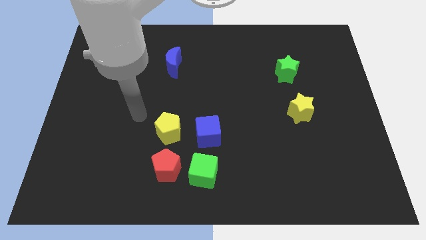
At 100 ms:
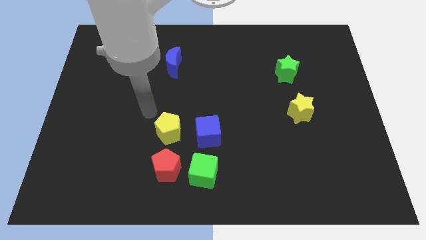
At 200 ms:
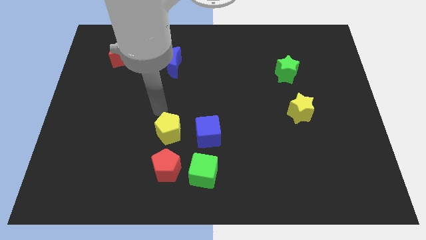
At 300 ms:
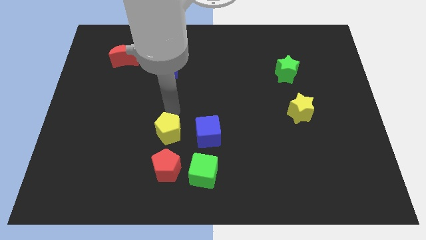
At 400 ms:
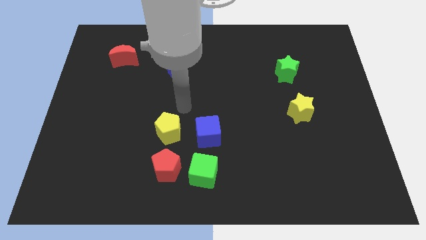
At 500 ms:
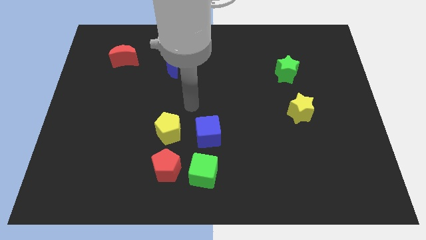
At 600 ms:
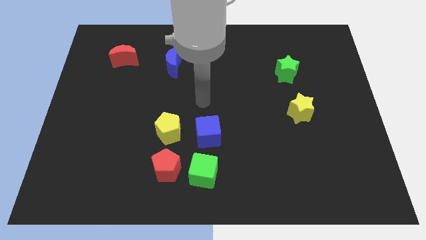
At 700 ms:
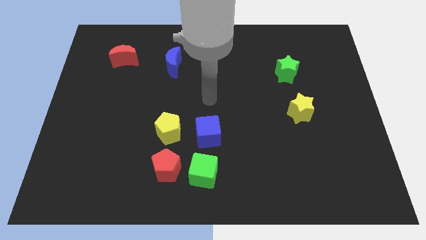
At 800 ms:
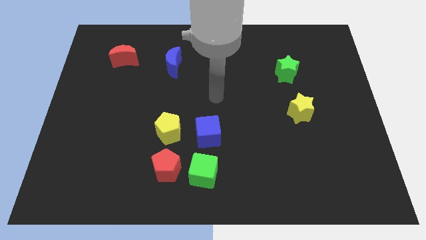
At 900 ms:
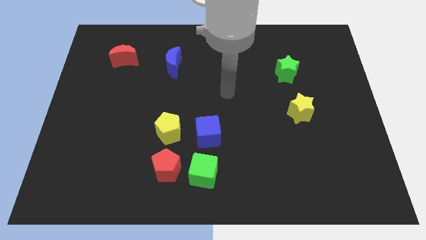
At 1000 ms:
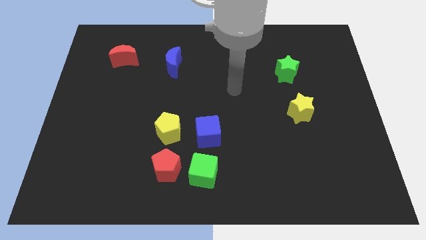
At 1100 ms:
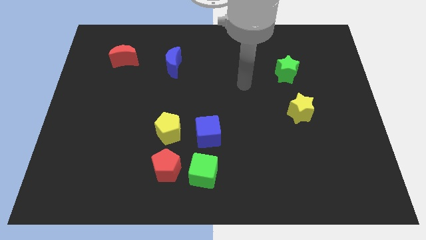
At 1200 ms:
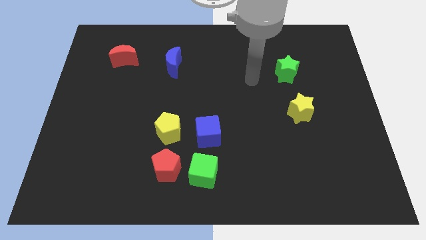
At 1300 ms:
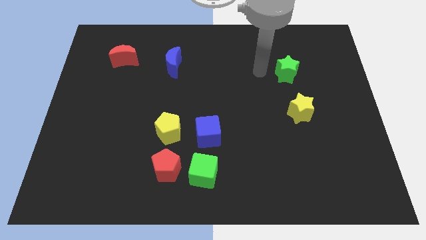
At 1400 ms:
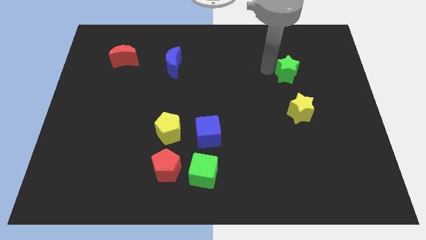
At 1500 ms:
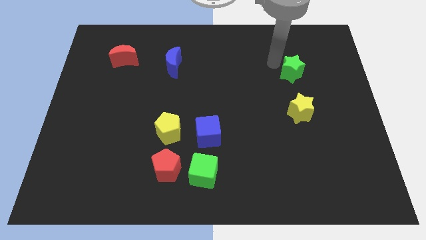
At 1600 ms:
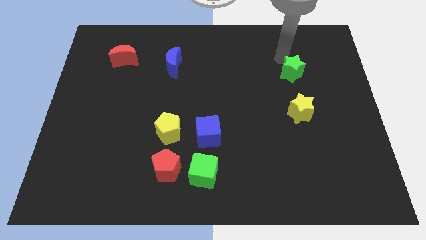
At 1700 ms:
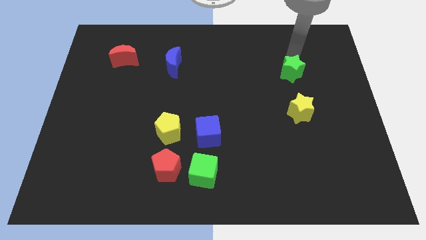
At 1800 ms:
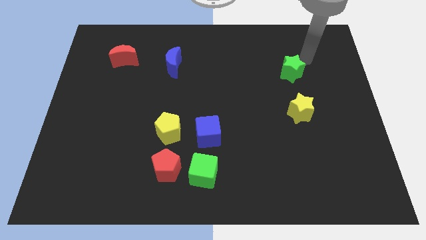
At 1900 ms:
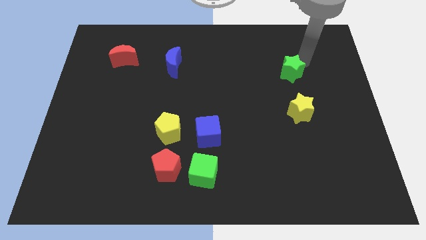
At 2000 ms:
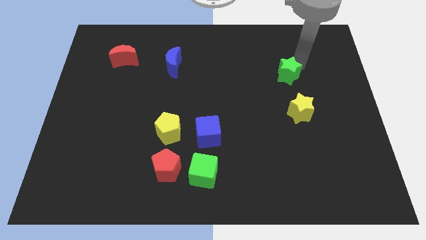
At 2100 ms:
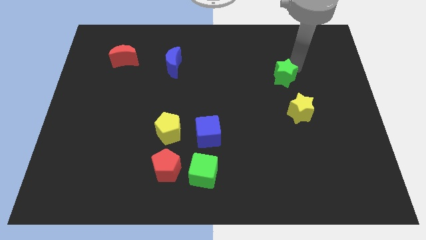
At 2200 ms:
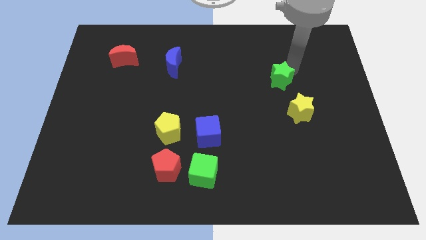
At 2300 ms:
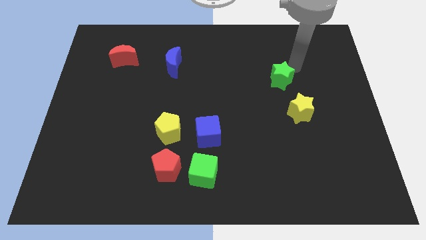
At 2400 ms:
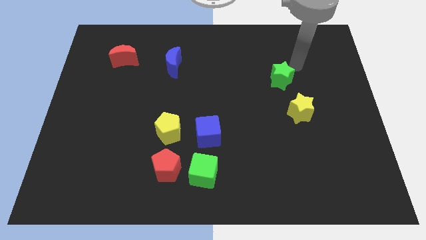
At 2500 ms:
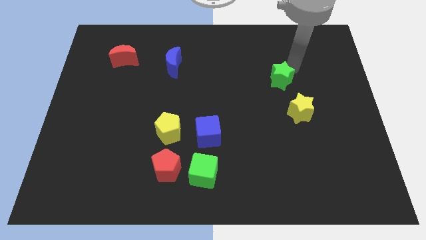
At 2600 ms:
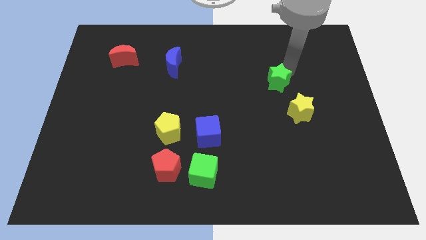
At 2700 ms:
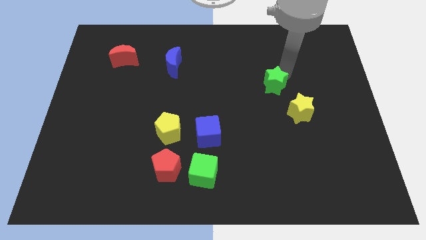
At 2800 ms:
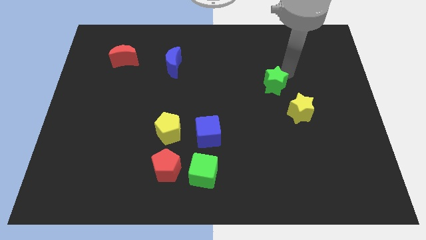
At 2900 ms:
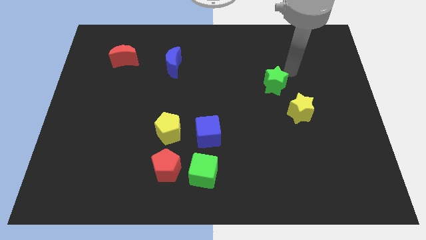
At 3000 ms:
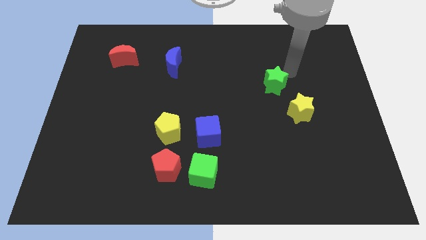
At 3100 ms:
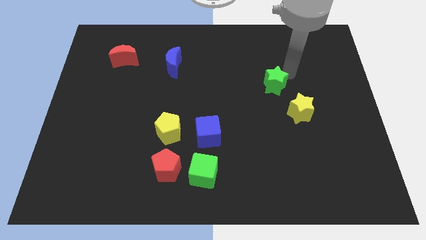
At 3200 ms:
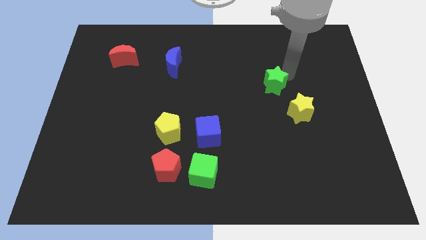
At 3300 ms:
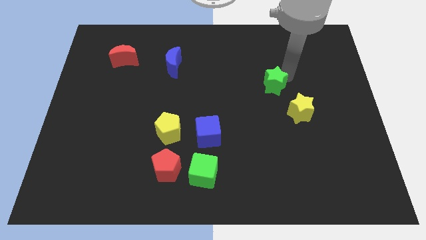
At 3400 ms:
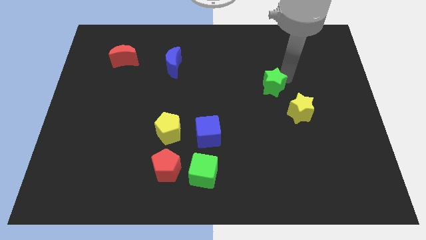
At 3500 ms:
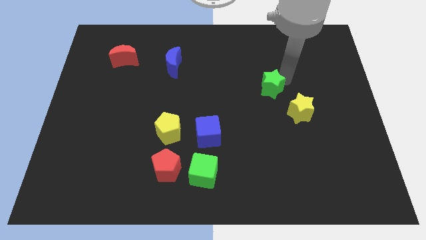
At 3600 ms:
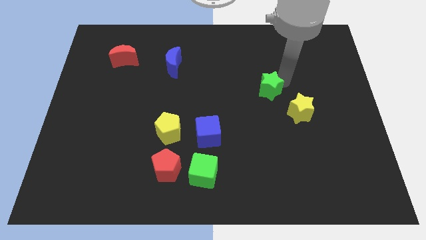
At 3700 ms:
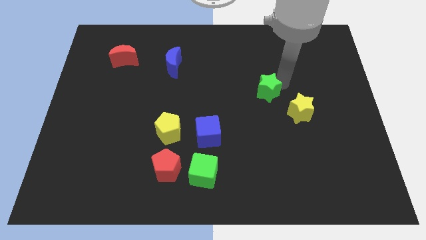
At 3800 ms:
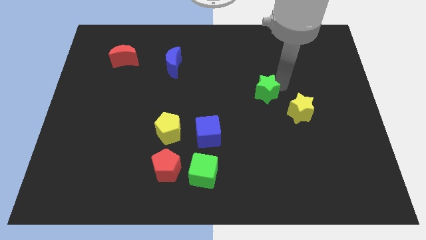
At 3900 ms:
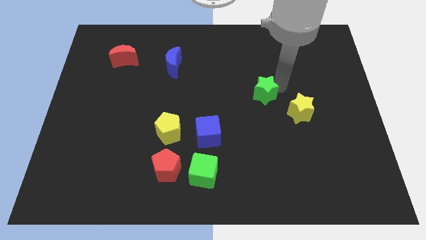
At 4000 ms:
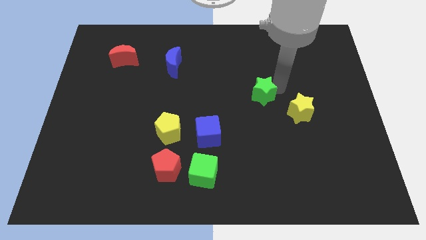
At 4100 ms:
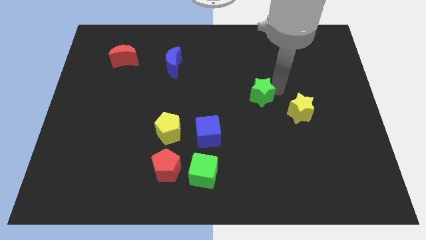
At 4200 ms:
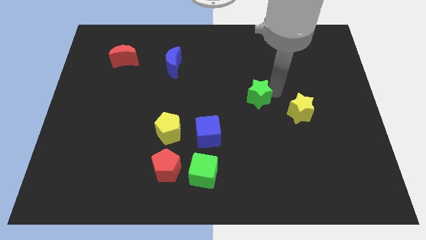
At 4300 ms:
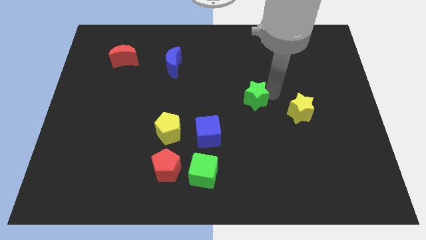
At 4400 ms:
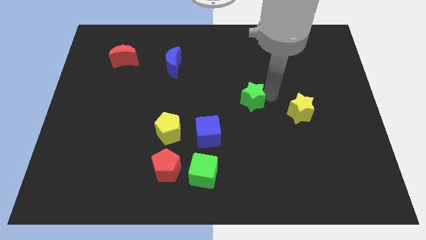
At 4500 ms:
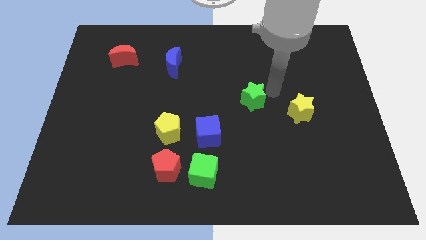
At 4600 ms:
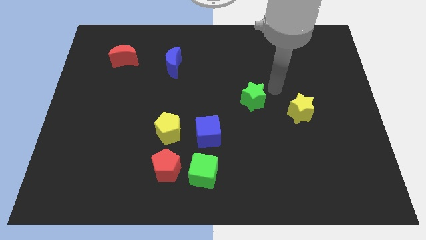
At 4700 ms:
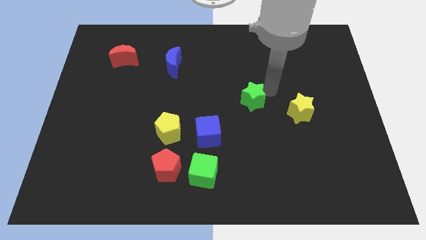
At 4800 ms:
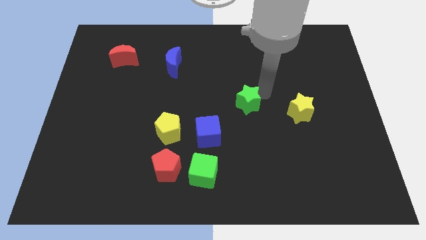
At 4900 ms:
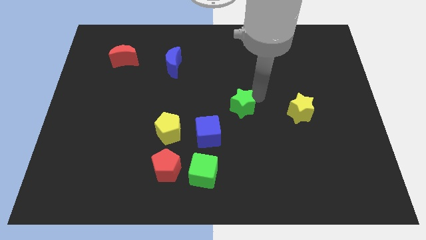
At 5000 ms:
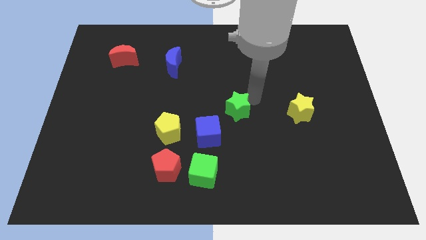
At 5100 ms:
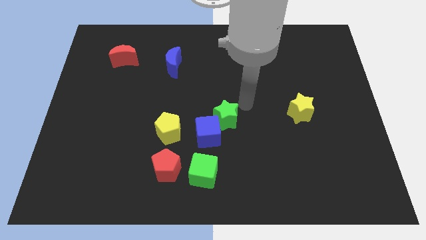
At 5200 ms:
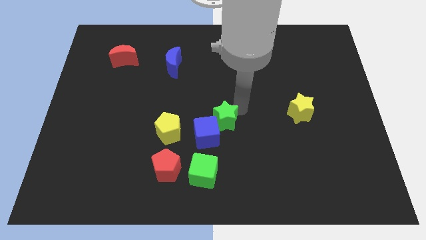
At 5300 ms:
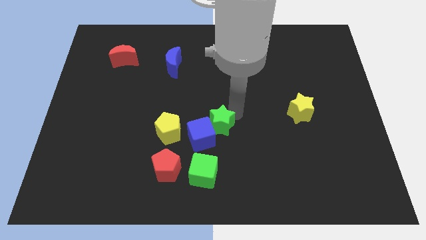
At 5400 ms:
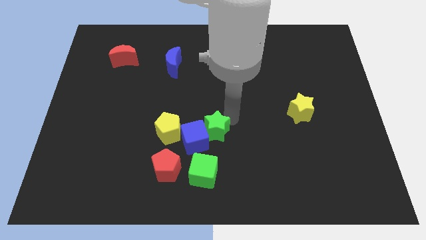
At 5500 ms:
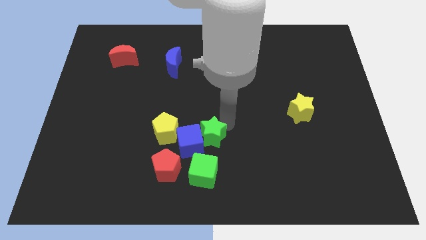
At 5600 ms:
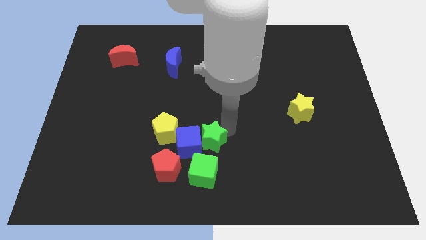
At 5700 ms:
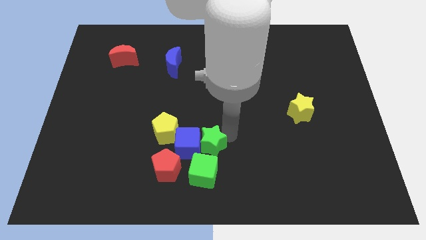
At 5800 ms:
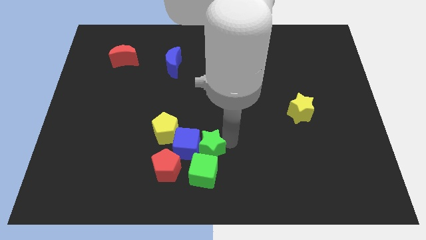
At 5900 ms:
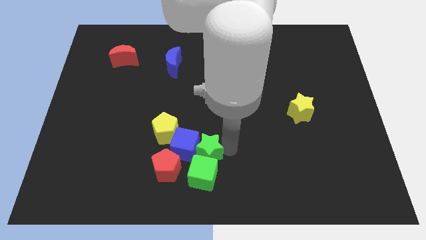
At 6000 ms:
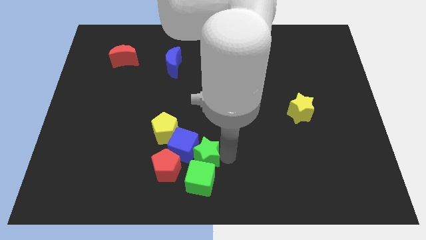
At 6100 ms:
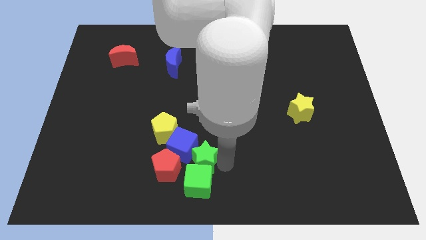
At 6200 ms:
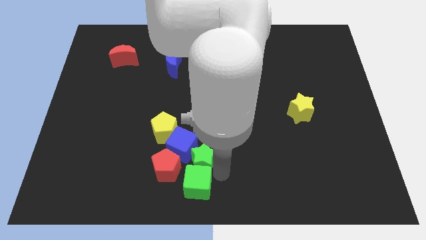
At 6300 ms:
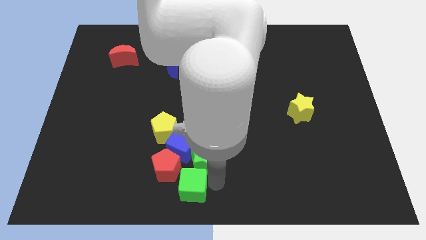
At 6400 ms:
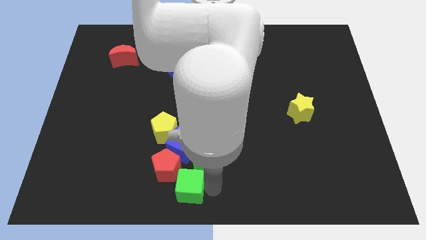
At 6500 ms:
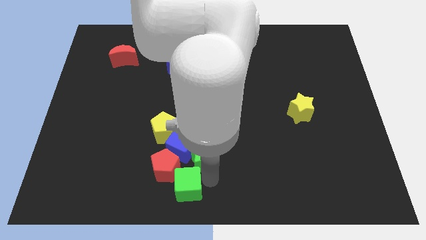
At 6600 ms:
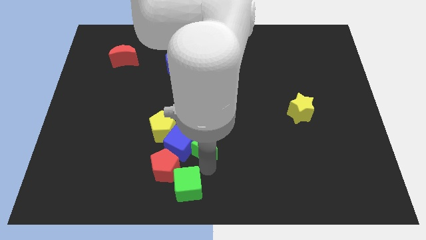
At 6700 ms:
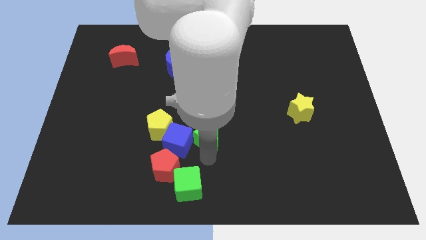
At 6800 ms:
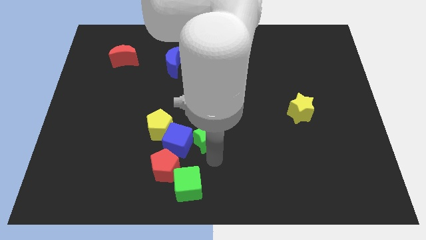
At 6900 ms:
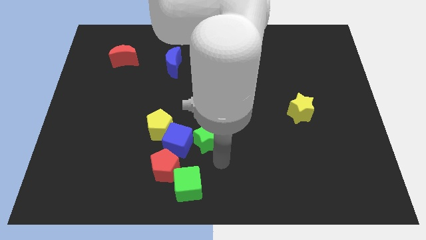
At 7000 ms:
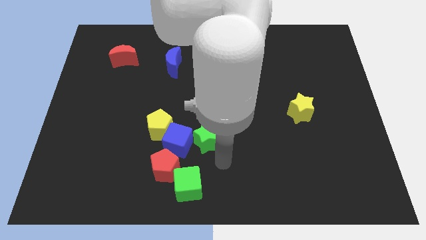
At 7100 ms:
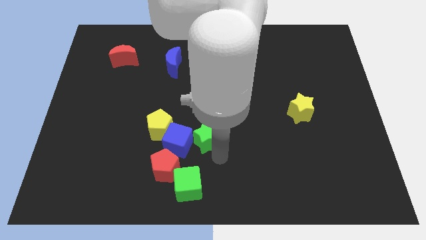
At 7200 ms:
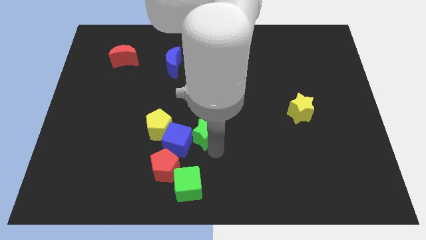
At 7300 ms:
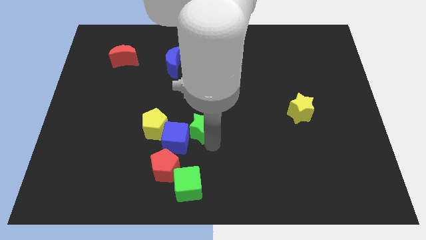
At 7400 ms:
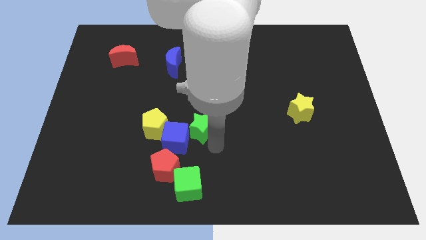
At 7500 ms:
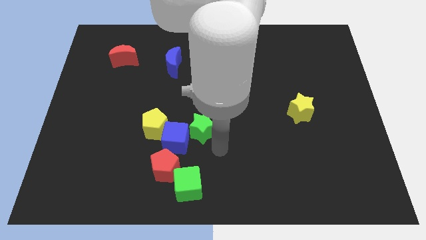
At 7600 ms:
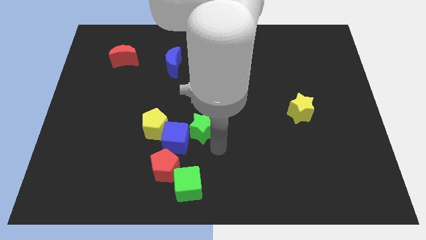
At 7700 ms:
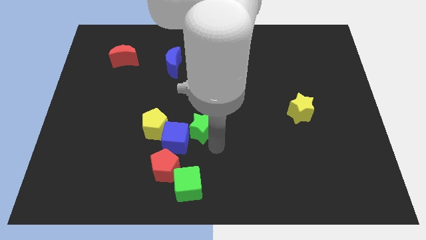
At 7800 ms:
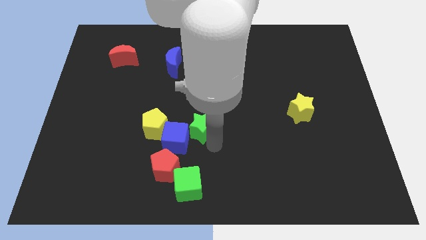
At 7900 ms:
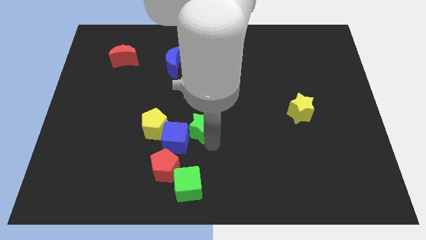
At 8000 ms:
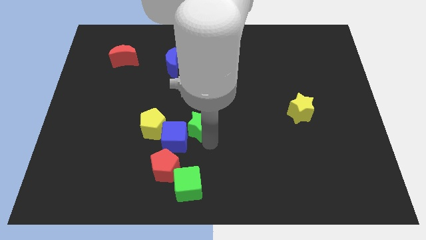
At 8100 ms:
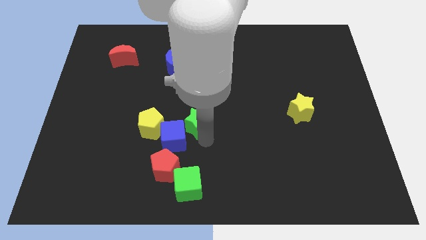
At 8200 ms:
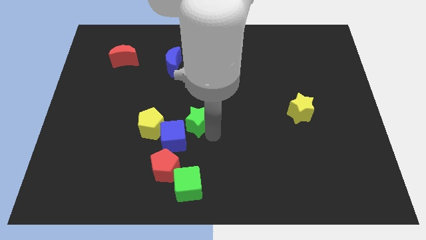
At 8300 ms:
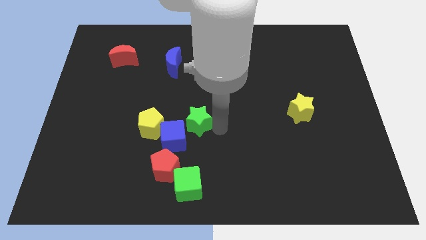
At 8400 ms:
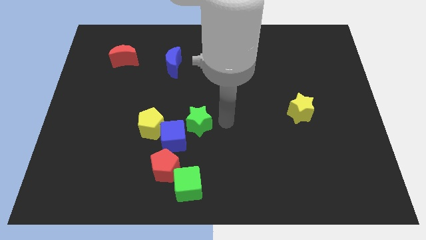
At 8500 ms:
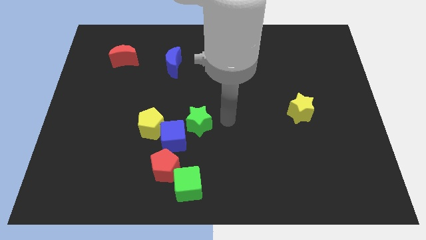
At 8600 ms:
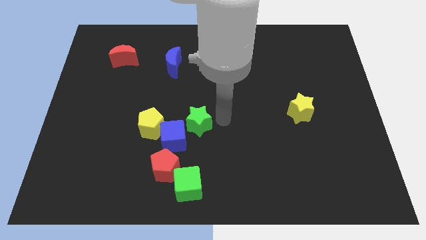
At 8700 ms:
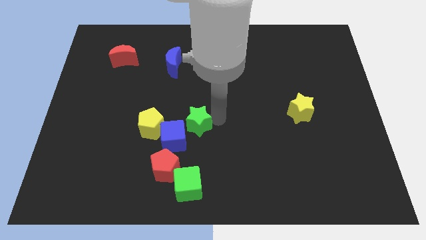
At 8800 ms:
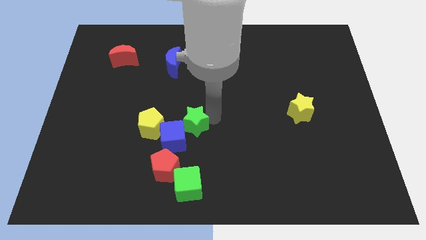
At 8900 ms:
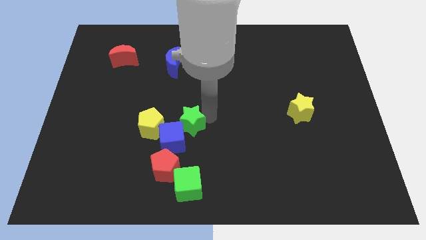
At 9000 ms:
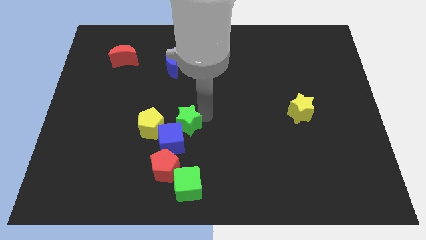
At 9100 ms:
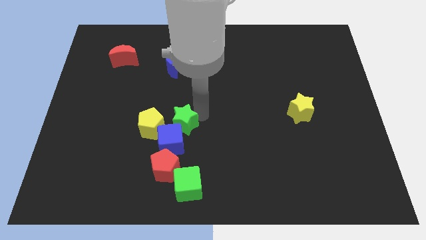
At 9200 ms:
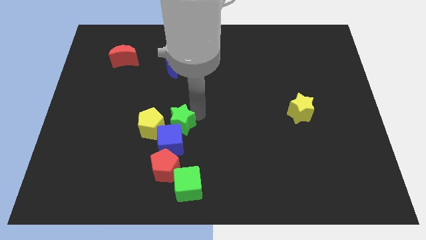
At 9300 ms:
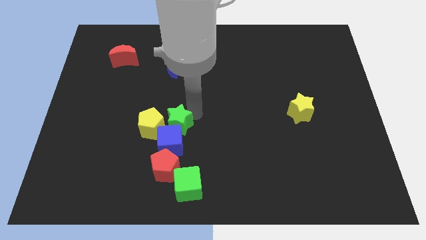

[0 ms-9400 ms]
move the green star to the yellow pentagon
